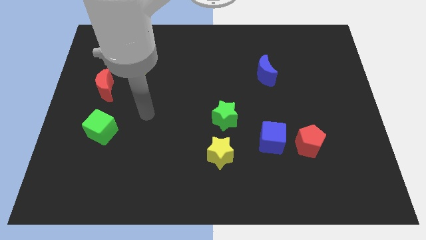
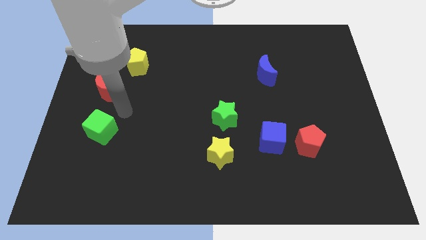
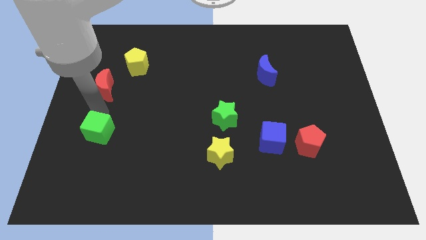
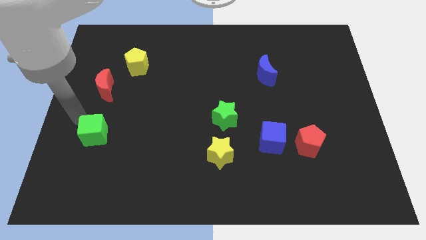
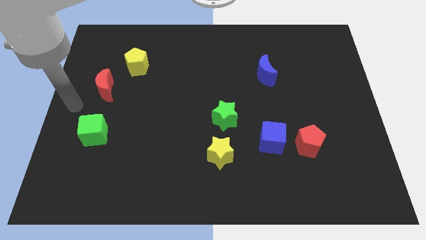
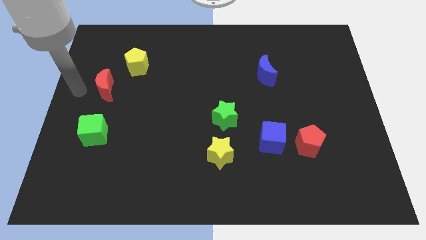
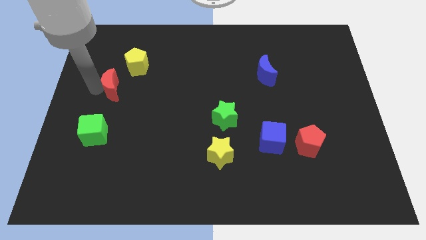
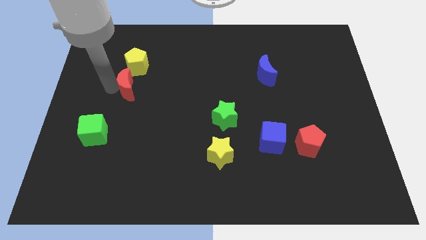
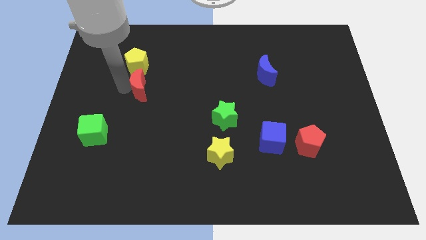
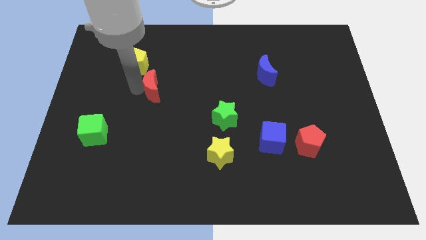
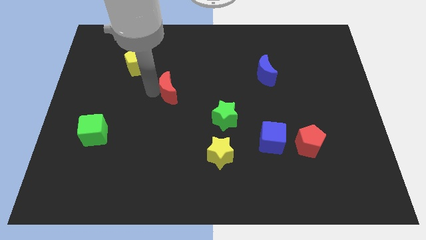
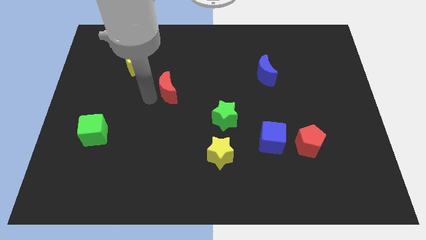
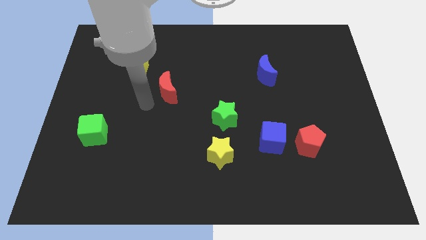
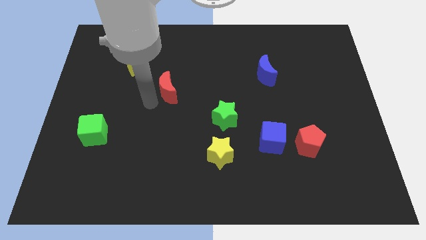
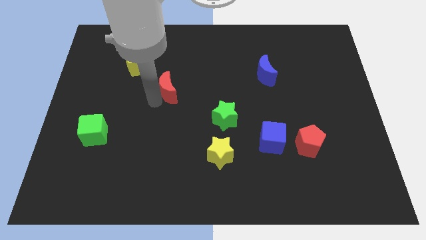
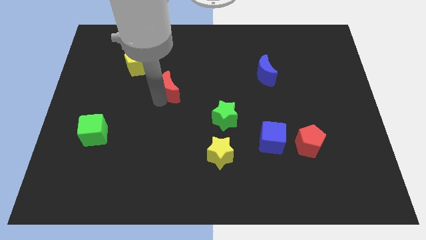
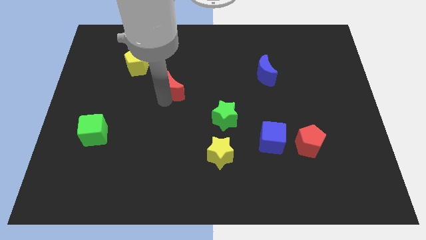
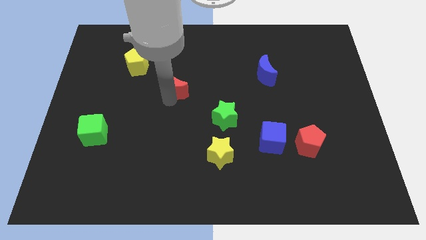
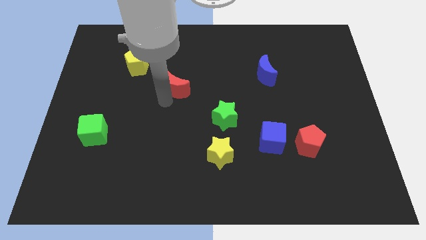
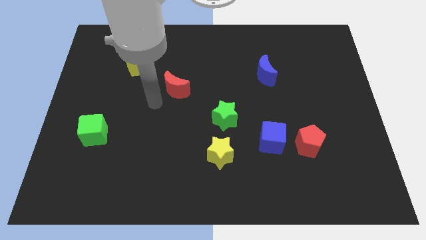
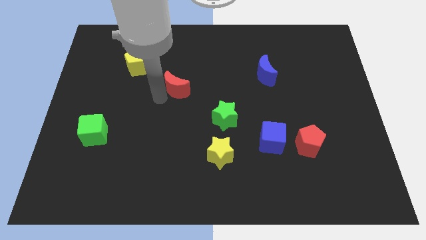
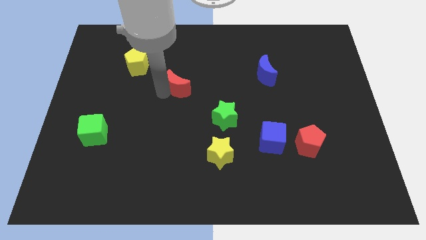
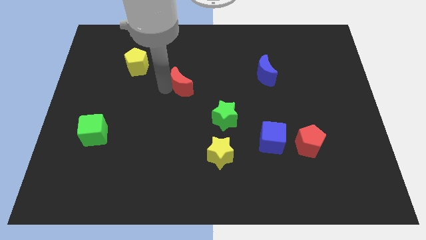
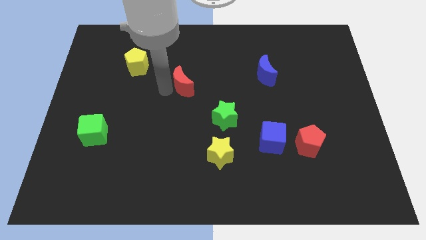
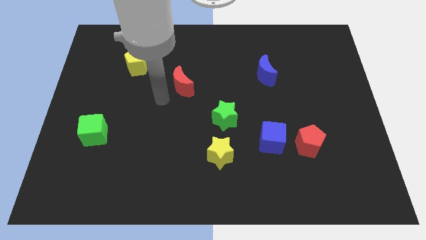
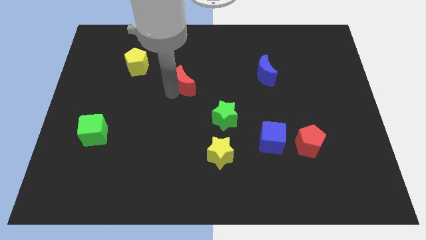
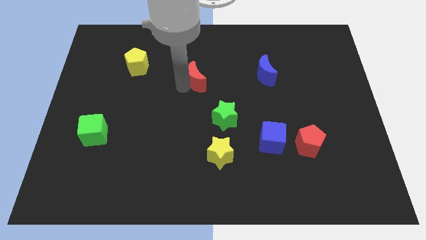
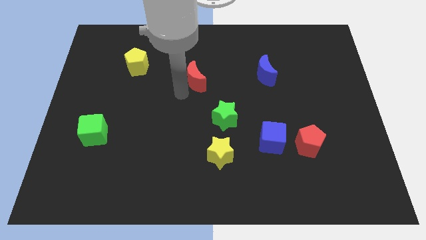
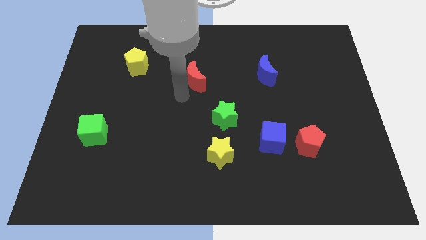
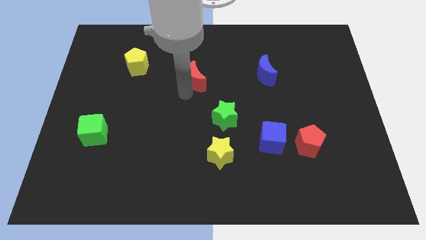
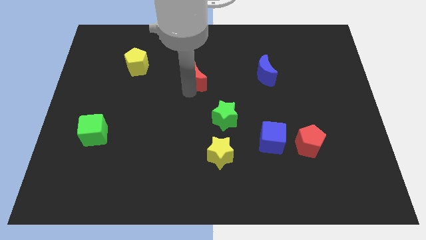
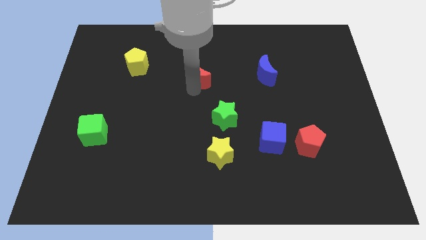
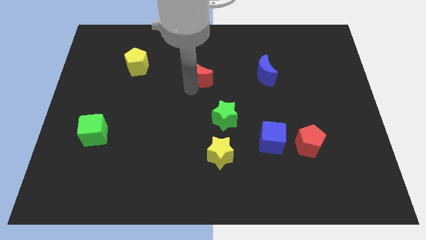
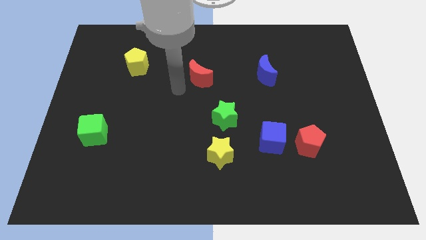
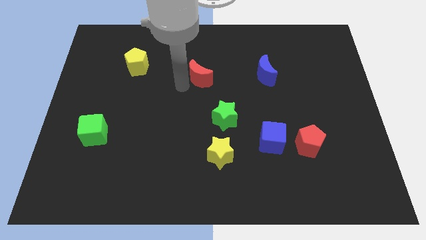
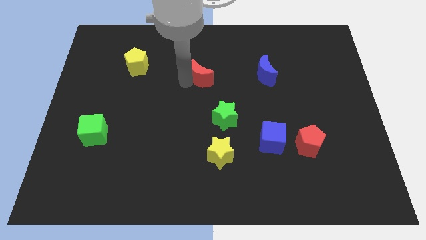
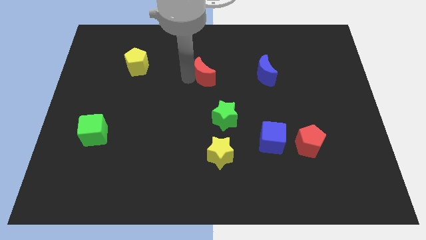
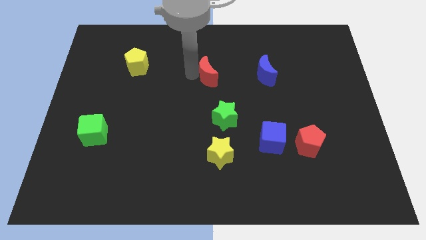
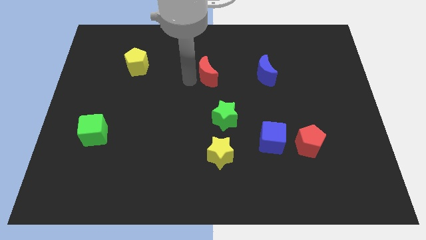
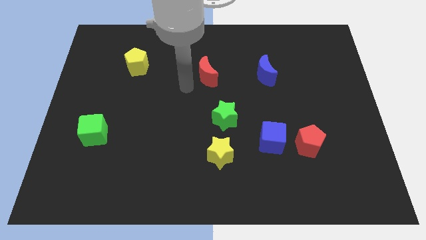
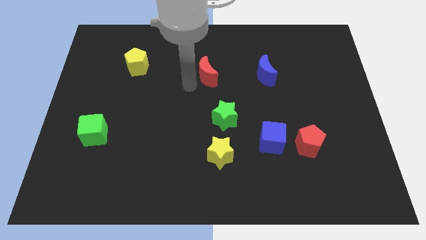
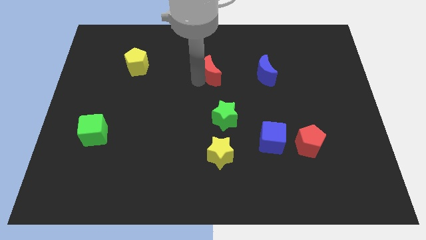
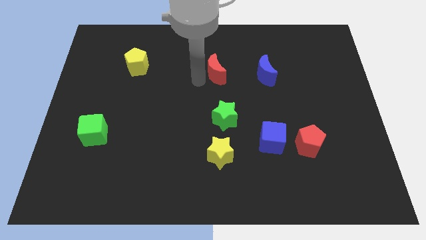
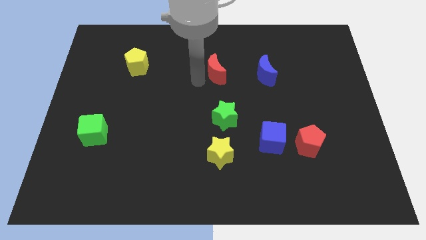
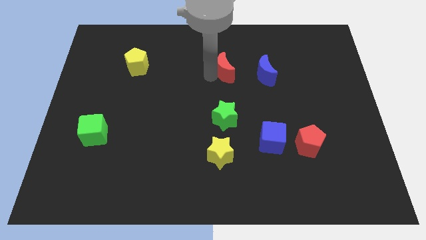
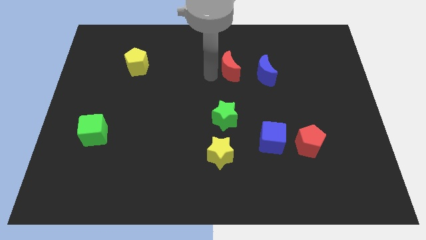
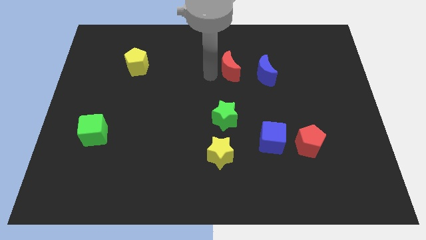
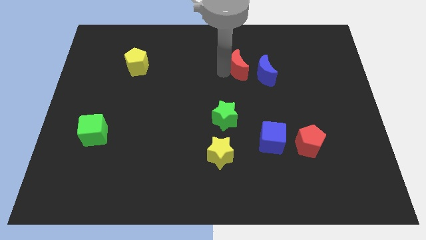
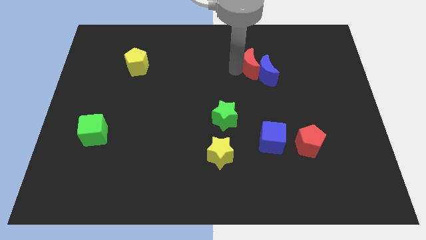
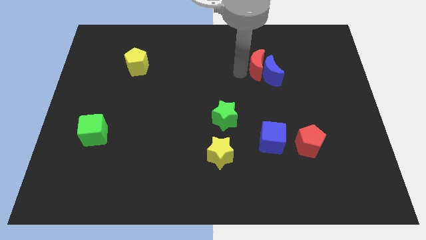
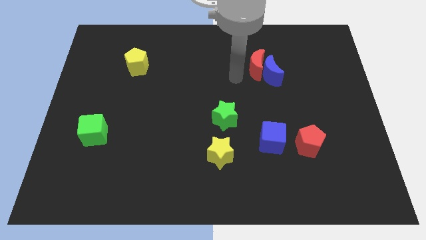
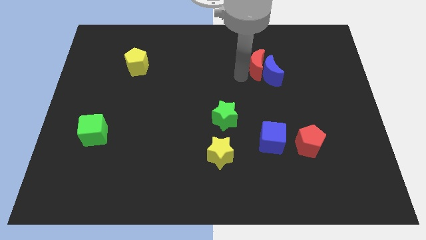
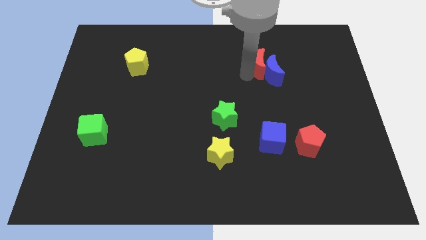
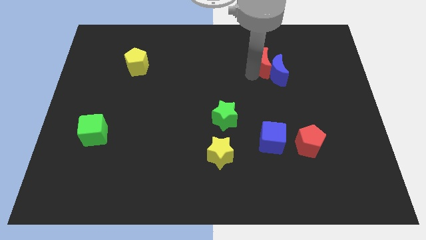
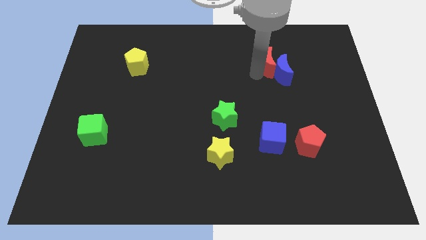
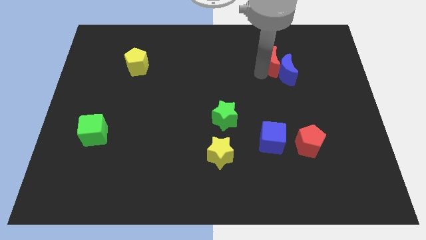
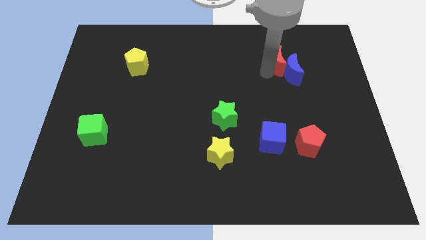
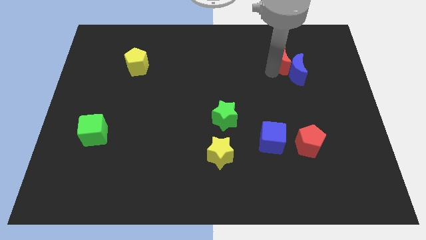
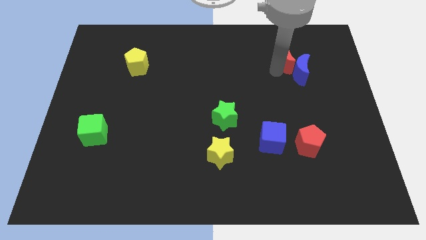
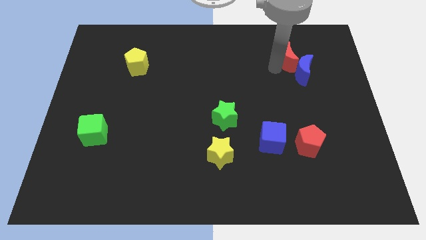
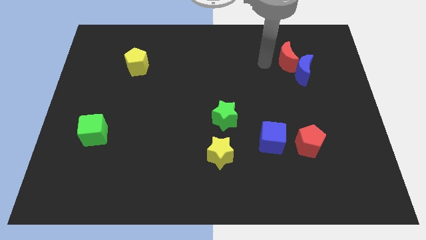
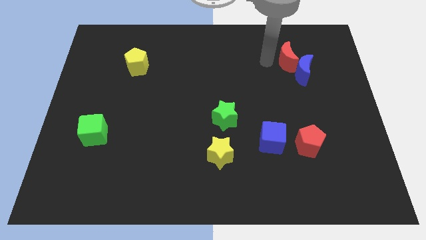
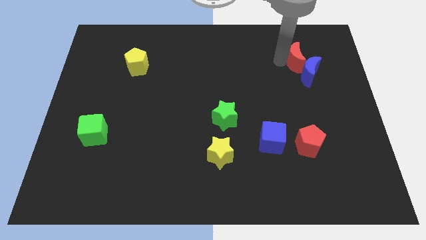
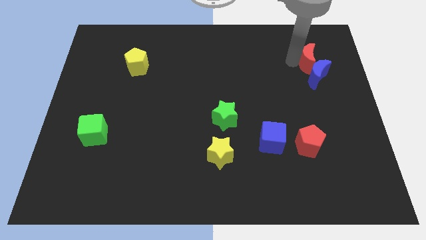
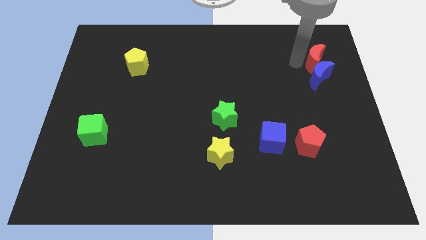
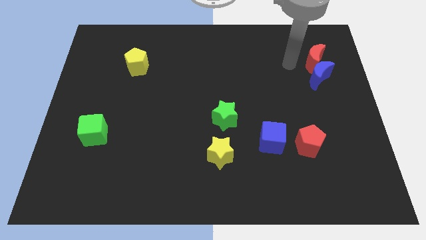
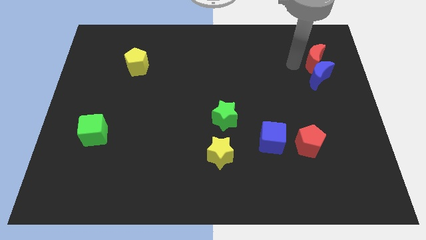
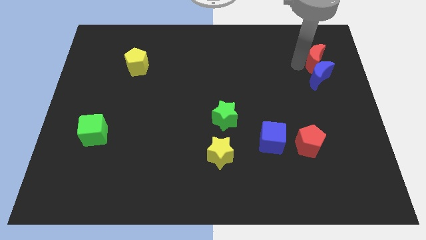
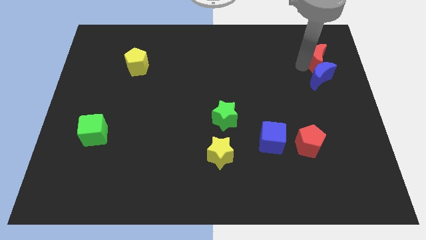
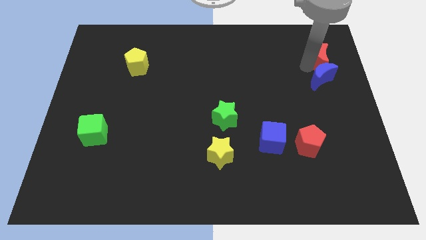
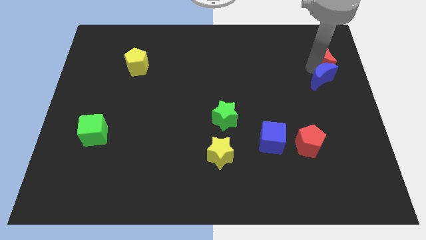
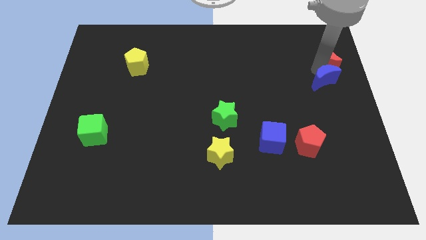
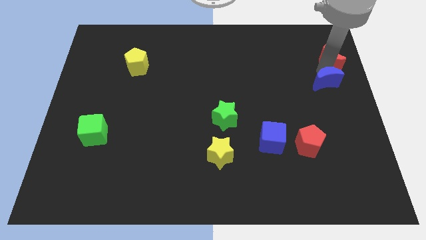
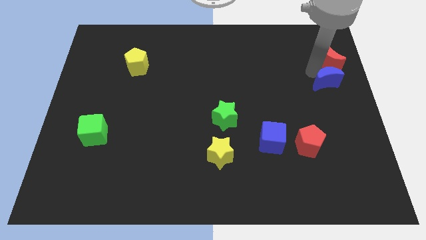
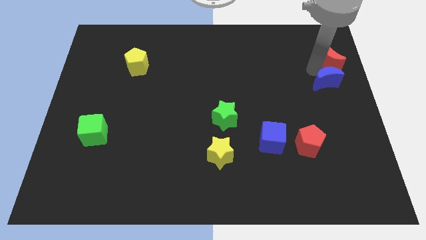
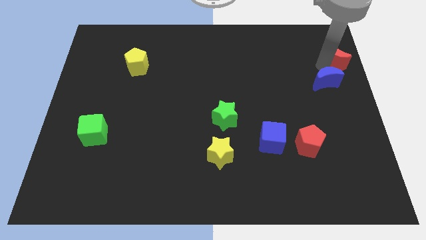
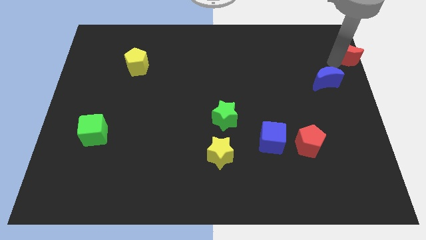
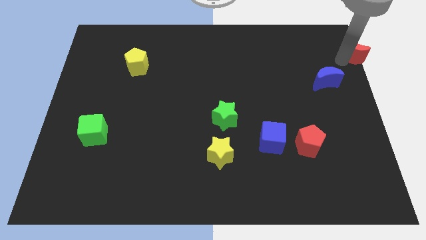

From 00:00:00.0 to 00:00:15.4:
move the red moon to the top right
